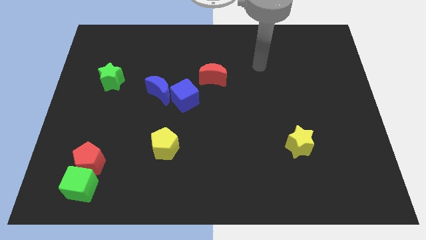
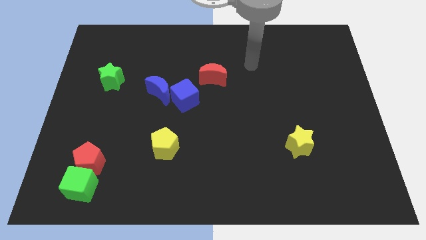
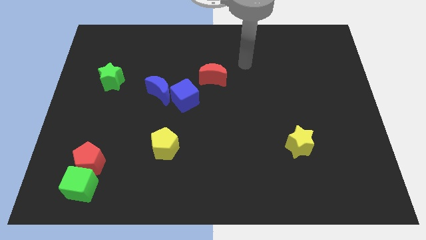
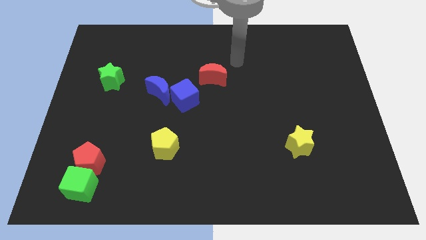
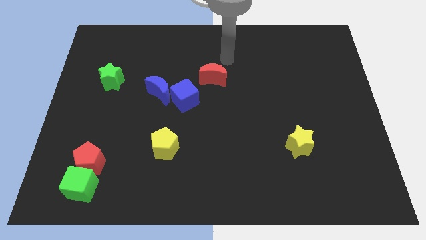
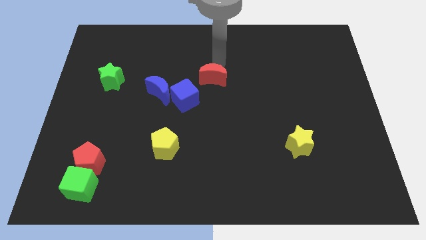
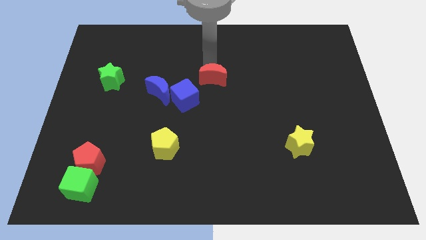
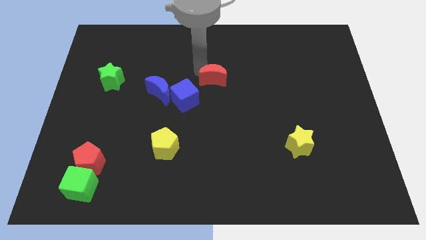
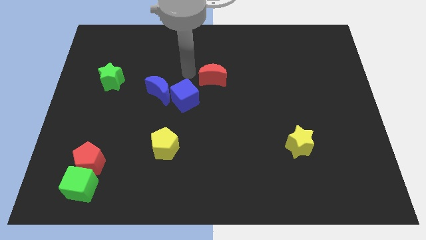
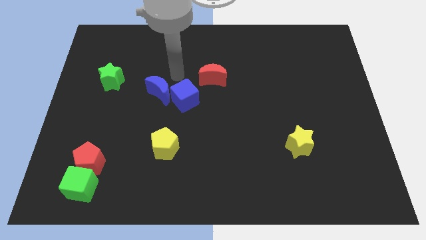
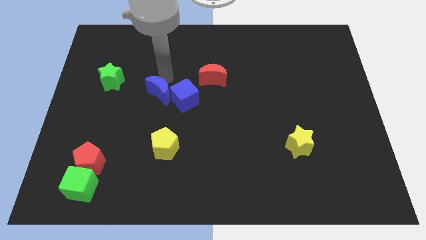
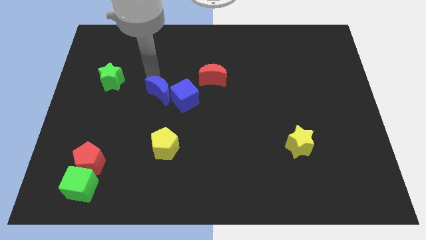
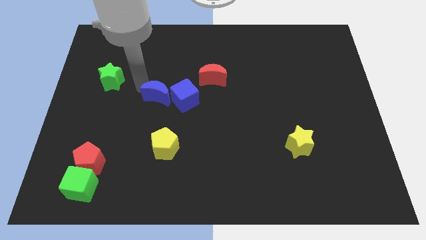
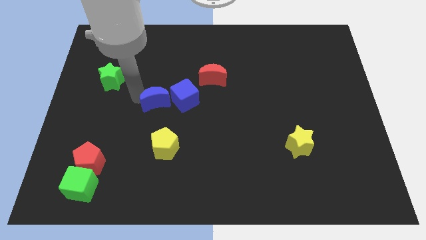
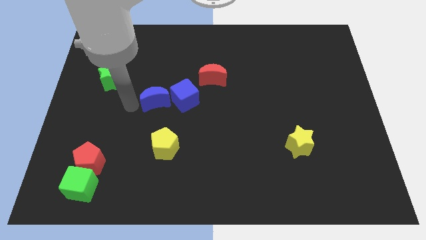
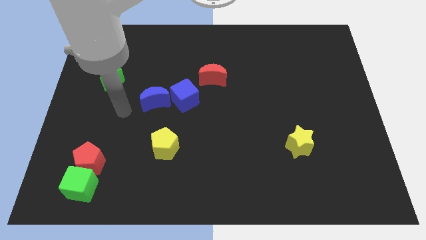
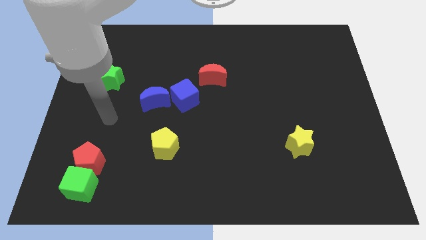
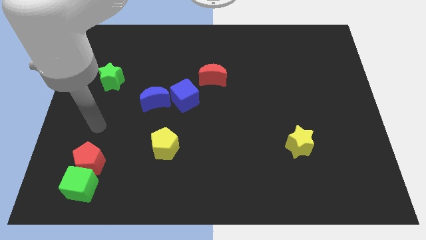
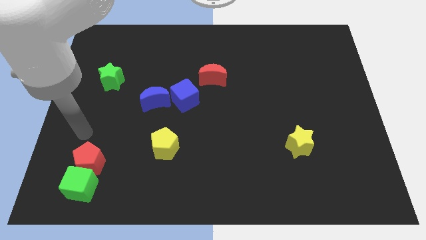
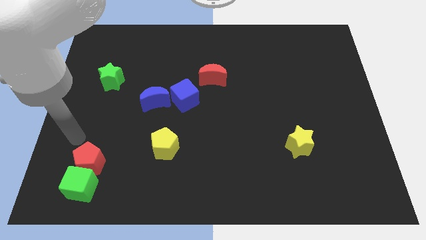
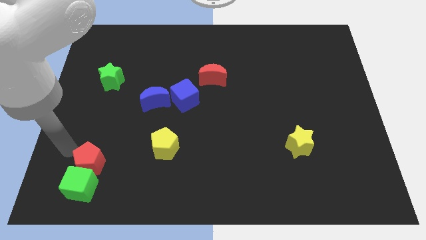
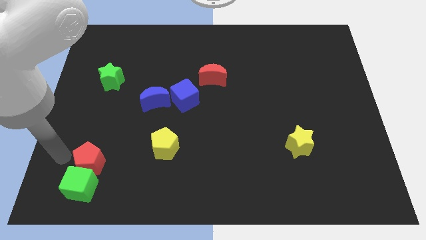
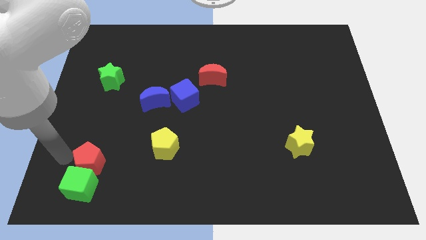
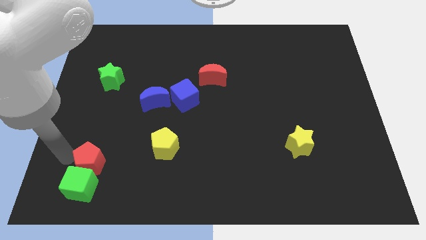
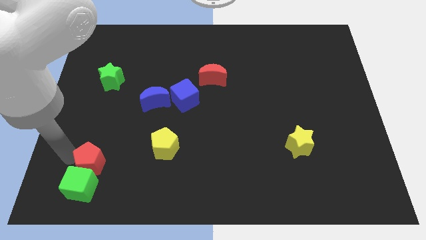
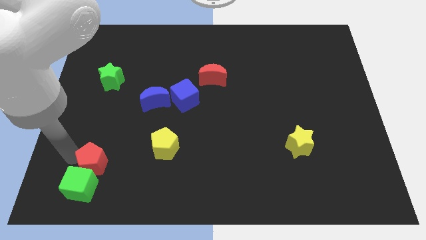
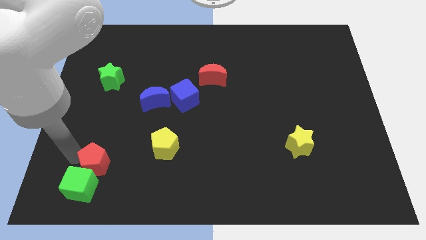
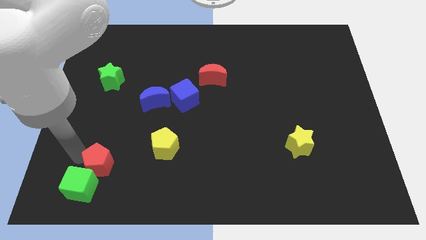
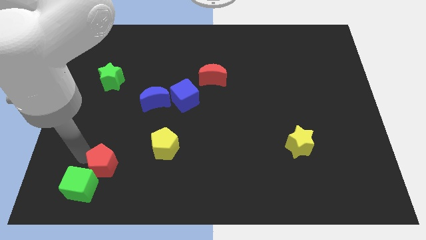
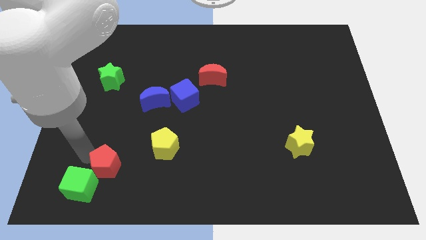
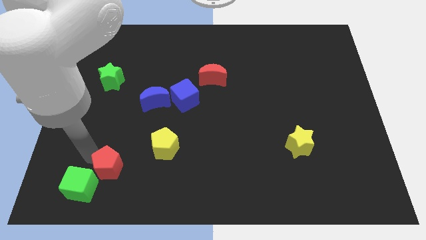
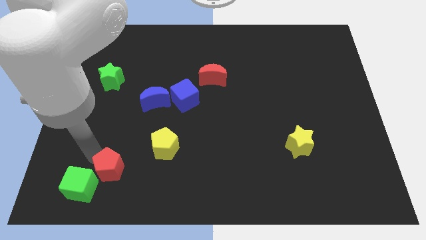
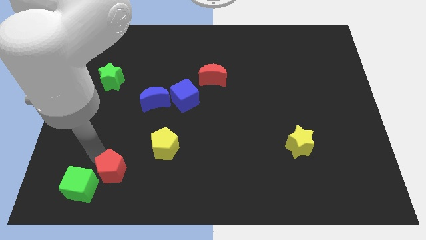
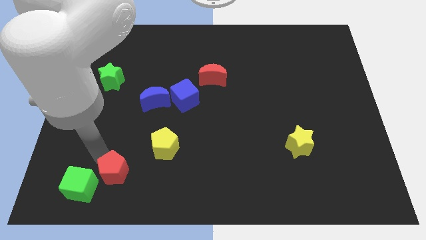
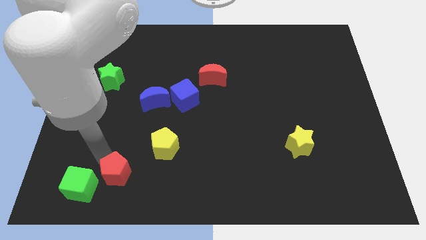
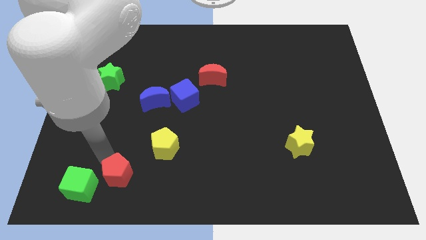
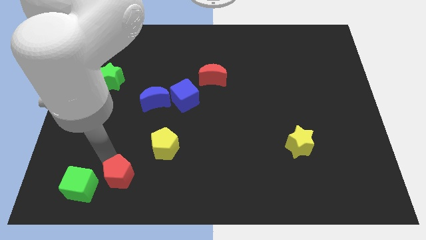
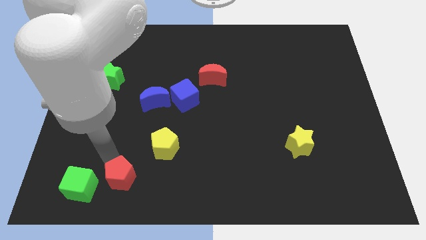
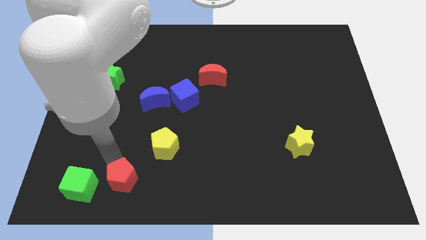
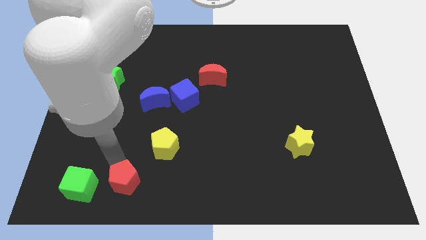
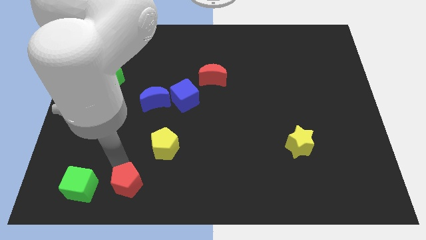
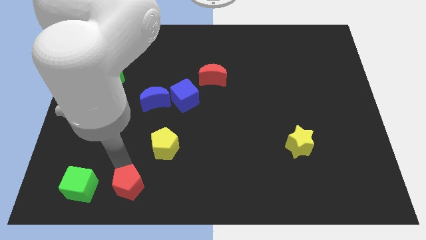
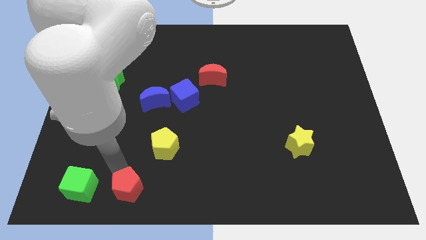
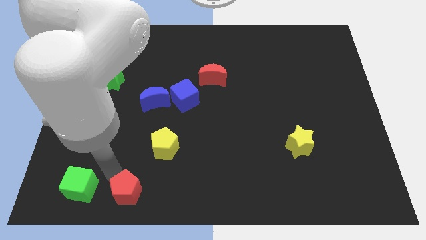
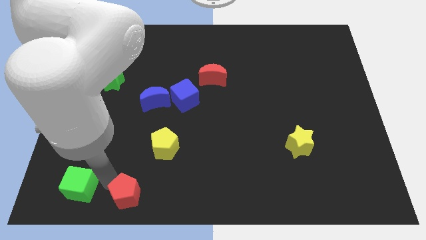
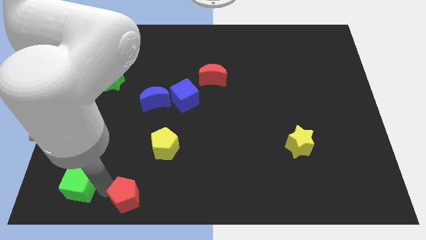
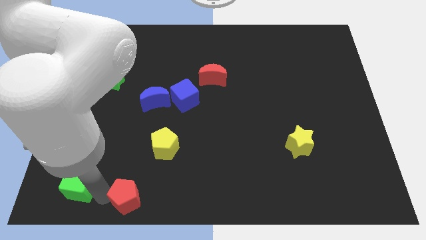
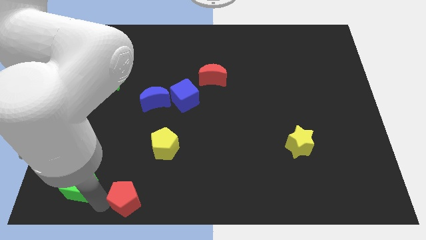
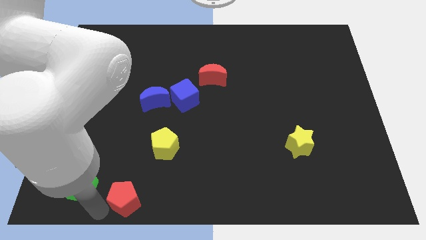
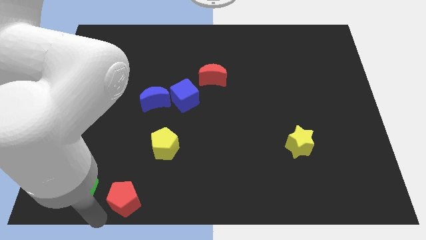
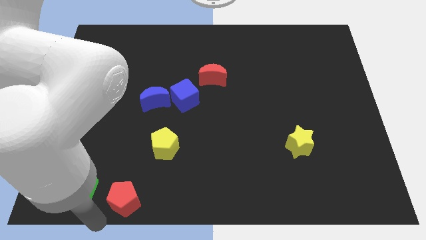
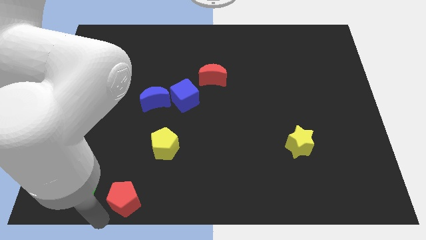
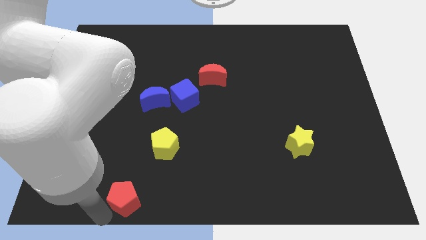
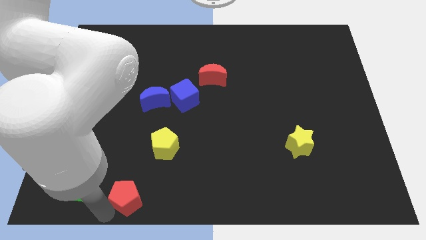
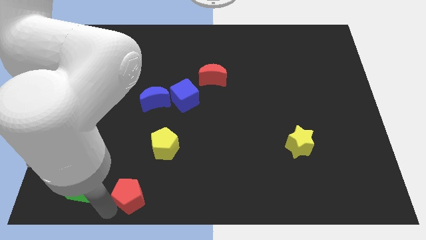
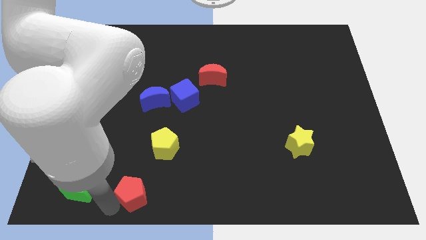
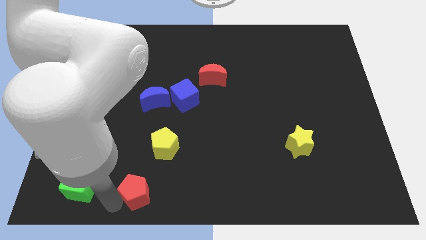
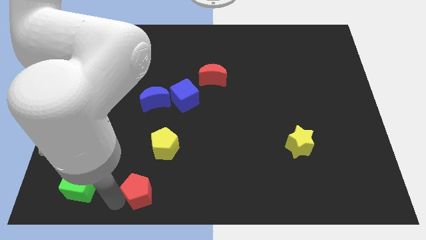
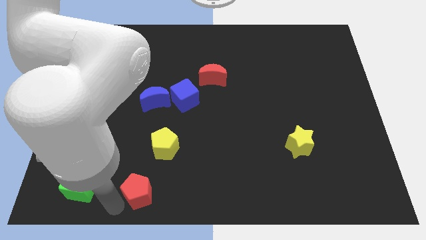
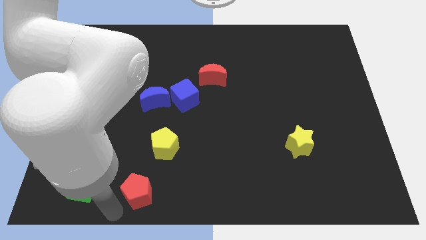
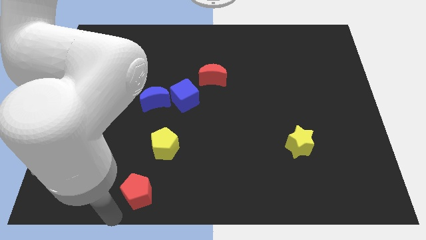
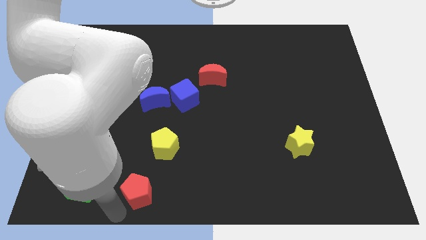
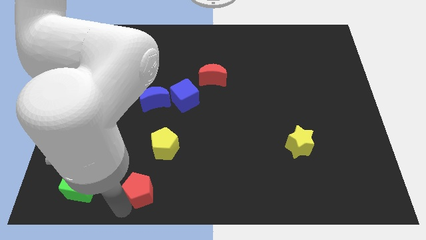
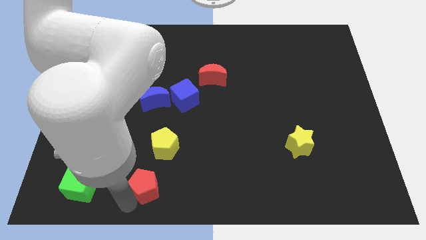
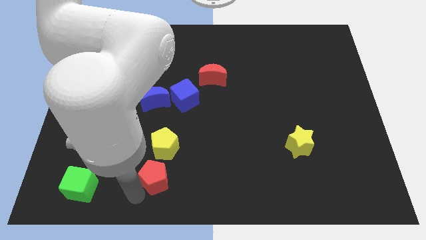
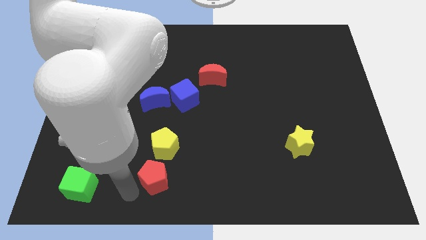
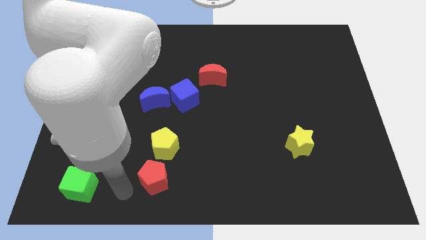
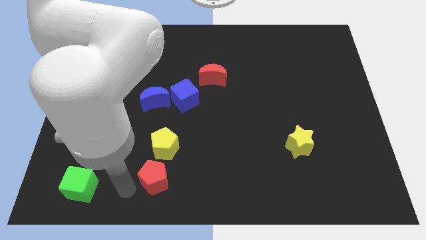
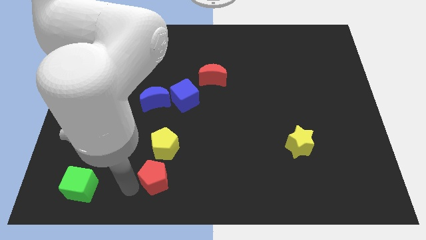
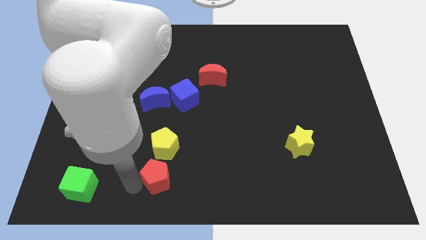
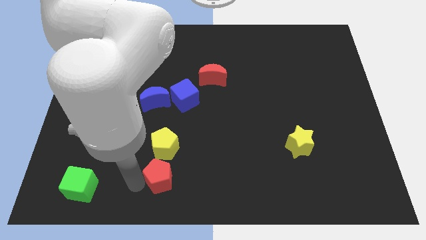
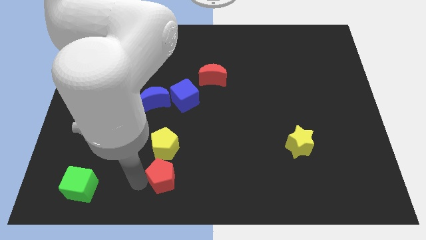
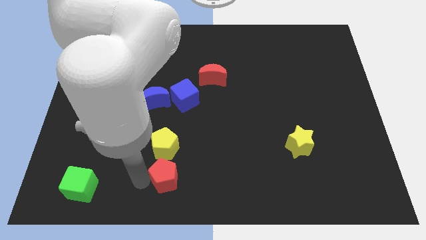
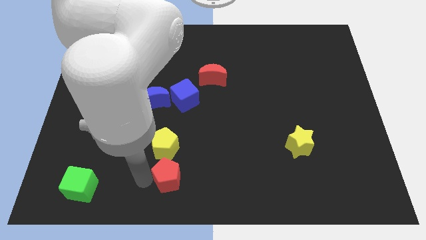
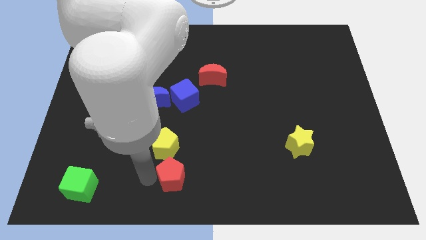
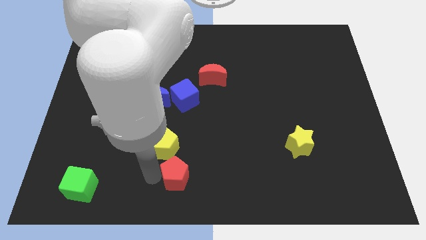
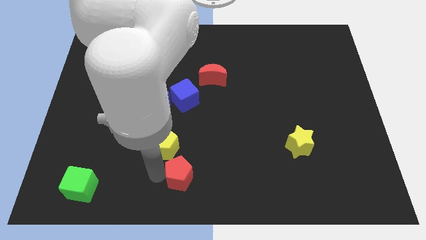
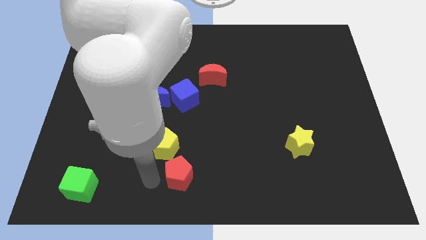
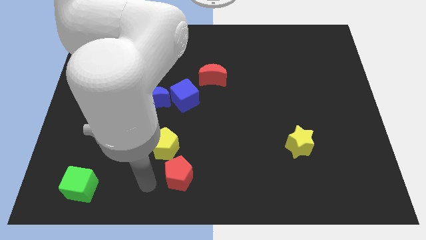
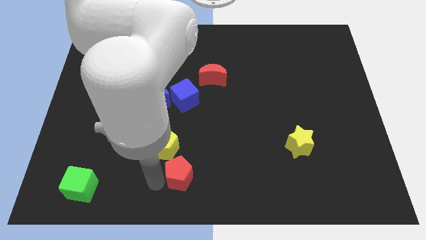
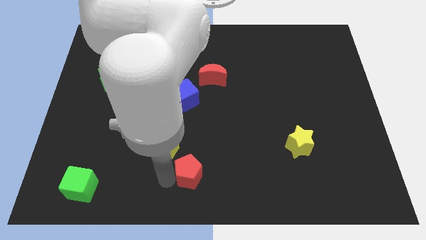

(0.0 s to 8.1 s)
slide the red pentagon right
